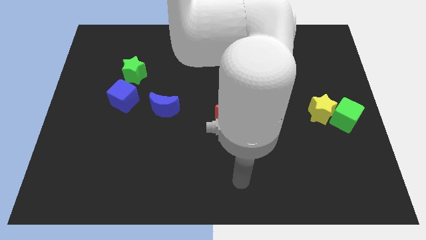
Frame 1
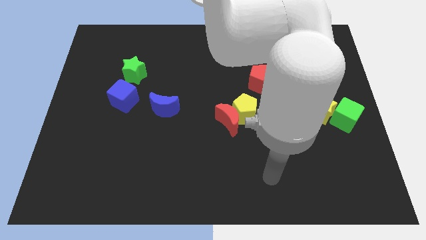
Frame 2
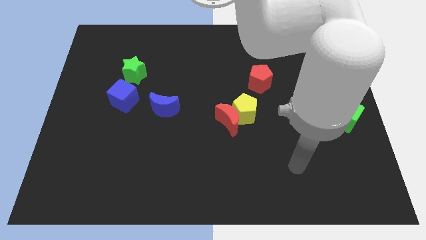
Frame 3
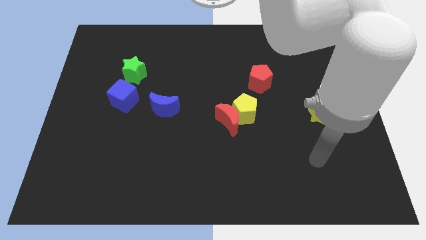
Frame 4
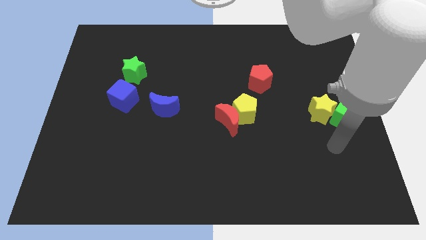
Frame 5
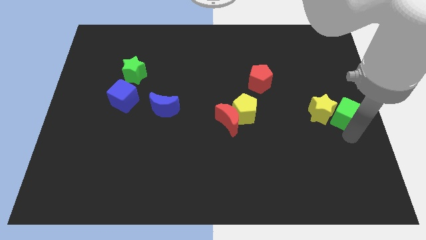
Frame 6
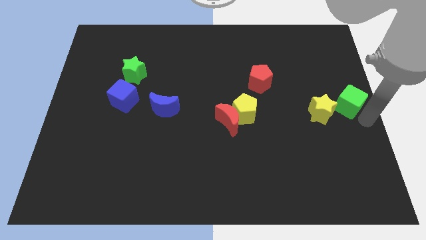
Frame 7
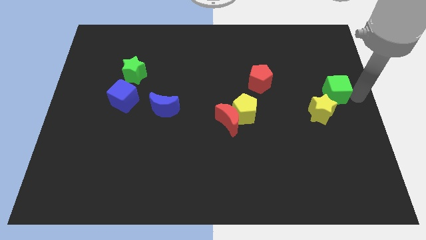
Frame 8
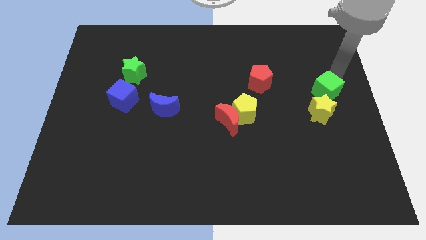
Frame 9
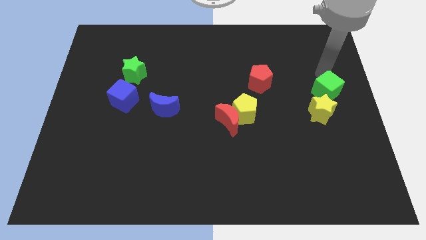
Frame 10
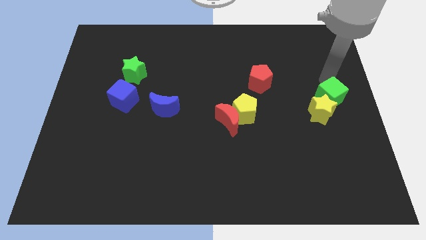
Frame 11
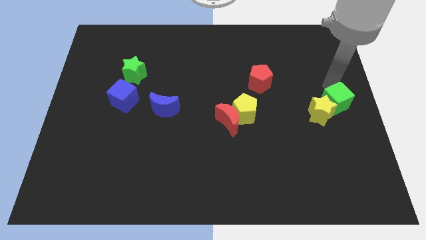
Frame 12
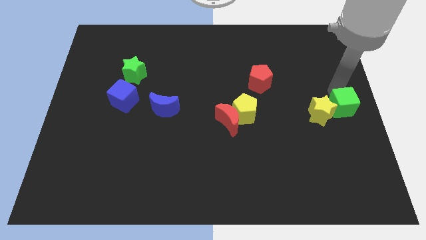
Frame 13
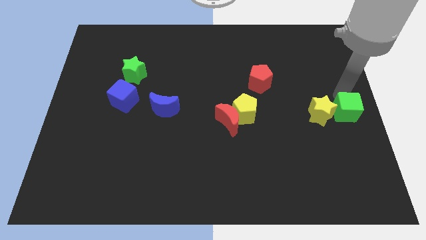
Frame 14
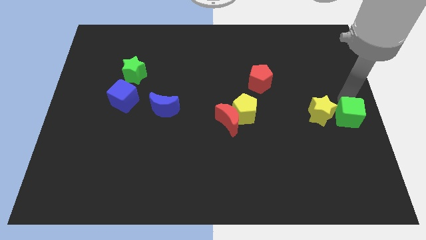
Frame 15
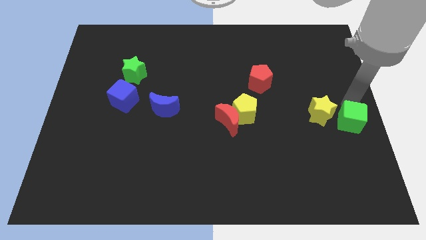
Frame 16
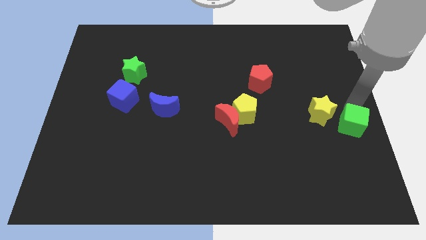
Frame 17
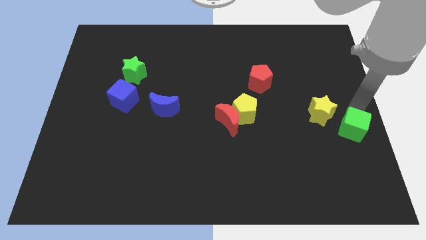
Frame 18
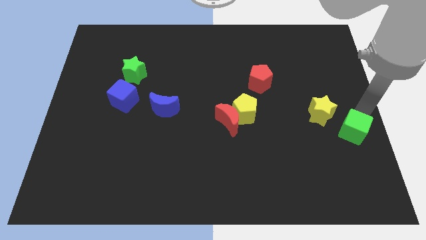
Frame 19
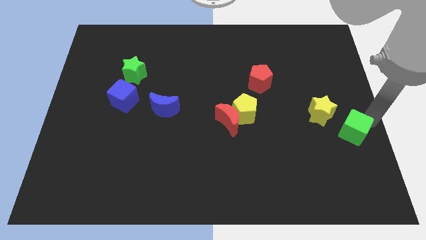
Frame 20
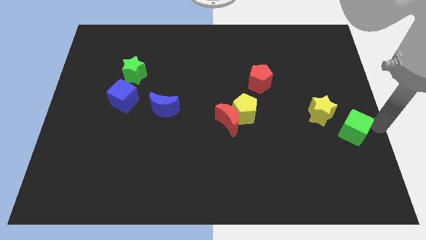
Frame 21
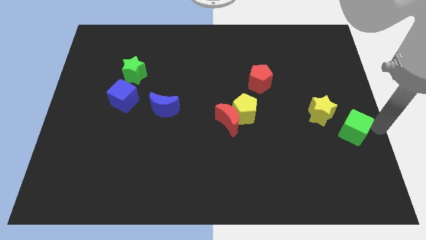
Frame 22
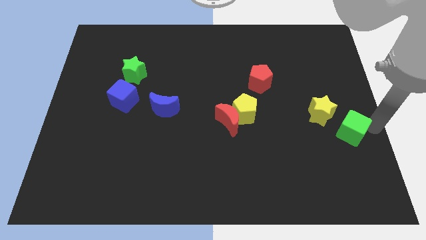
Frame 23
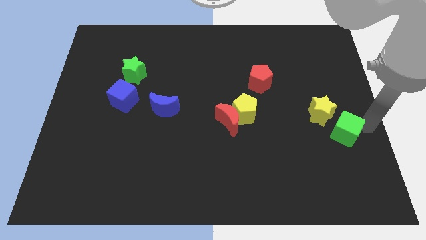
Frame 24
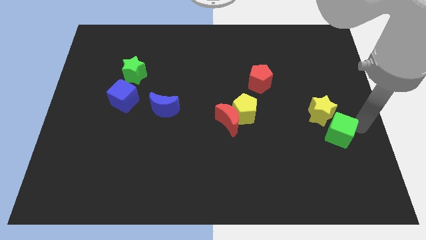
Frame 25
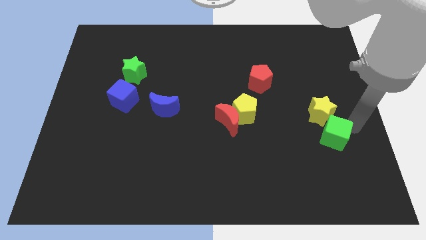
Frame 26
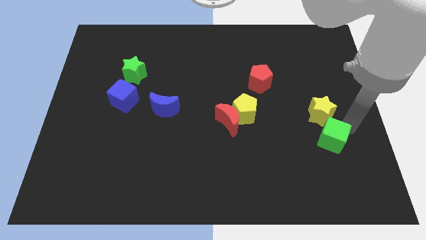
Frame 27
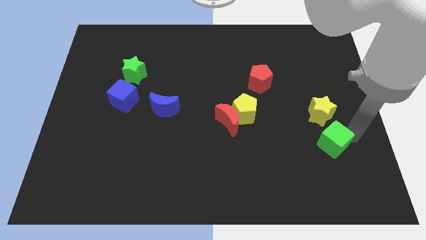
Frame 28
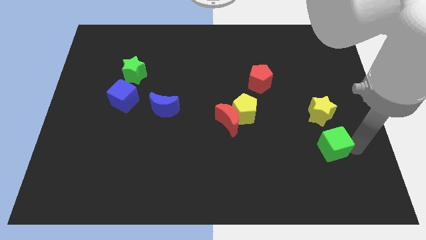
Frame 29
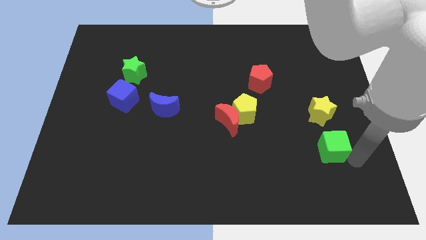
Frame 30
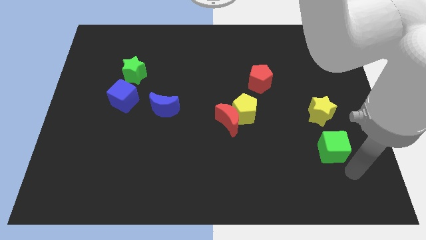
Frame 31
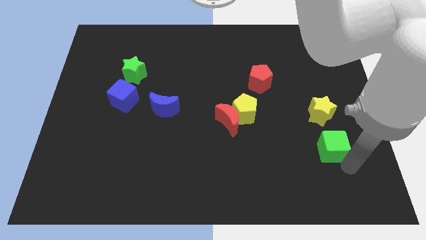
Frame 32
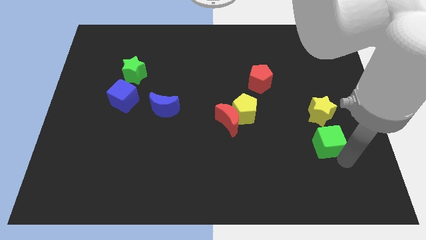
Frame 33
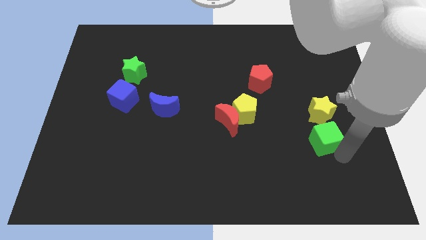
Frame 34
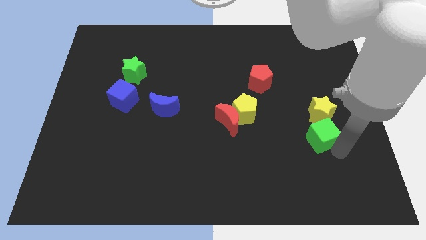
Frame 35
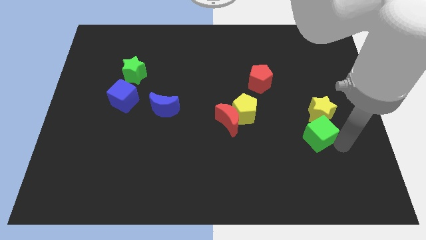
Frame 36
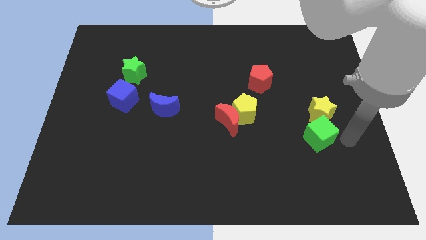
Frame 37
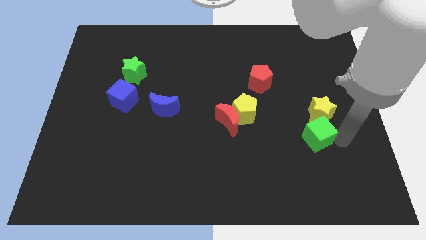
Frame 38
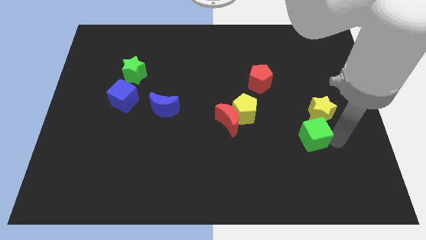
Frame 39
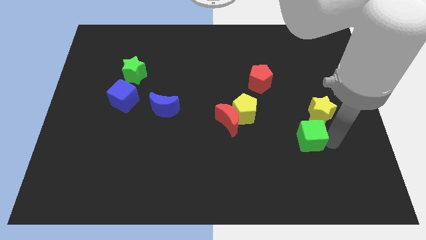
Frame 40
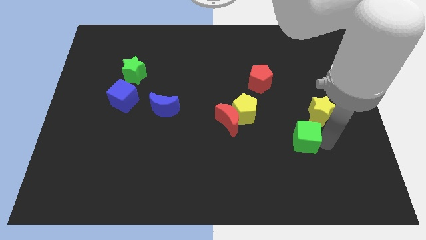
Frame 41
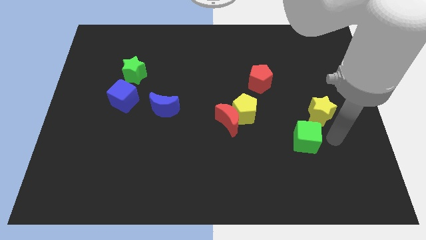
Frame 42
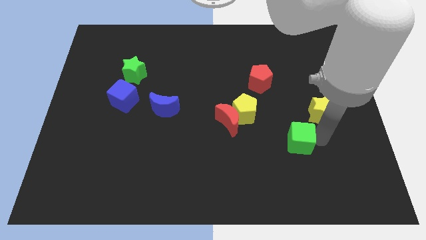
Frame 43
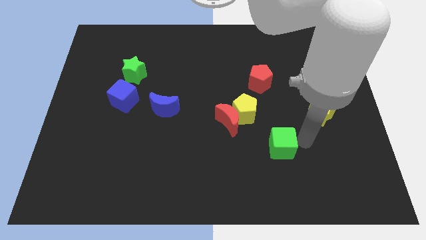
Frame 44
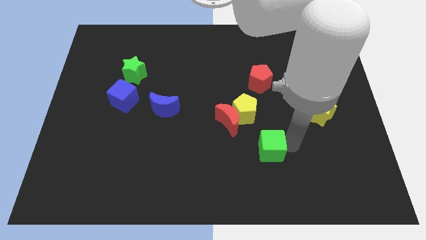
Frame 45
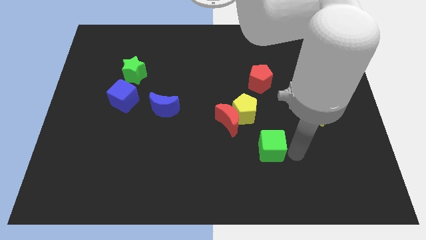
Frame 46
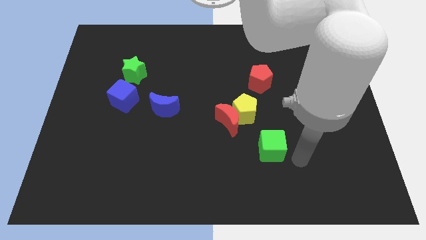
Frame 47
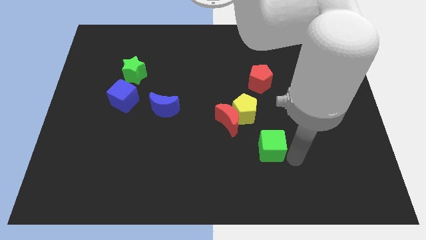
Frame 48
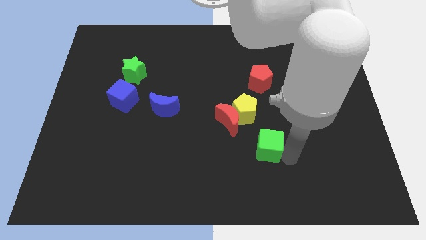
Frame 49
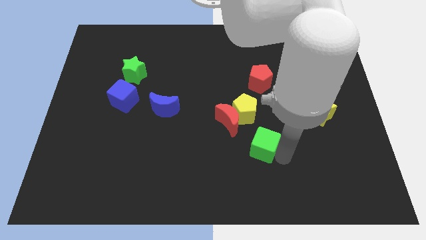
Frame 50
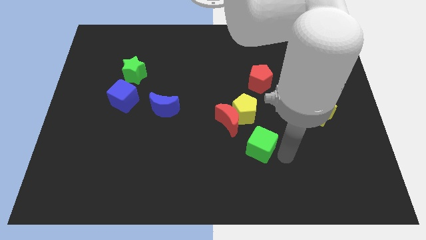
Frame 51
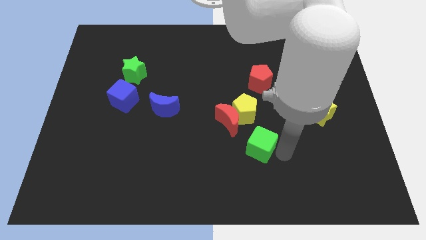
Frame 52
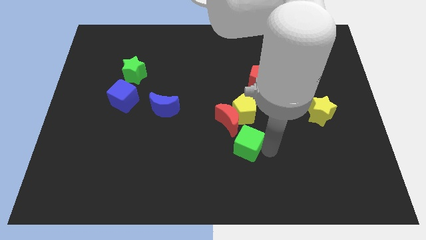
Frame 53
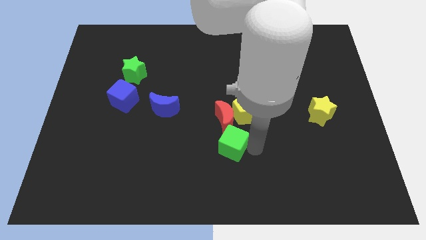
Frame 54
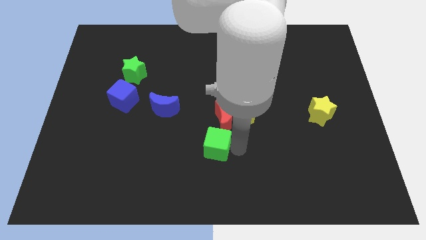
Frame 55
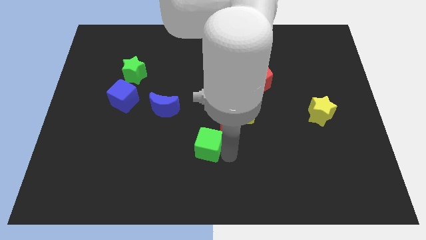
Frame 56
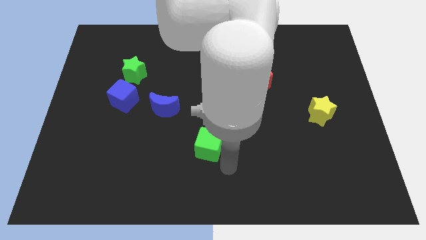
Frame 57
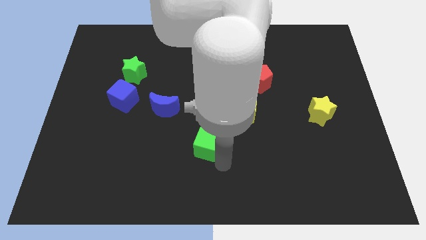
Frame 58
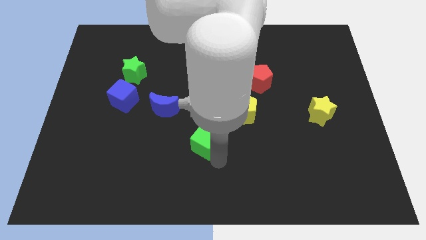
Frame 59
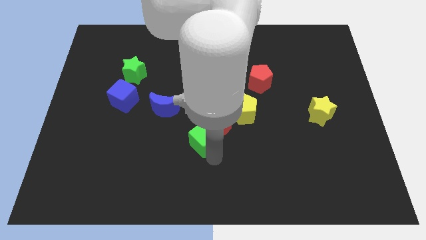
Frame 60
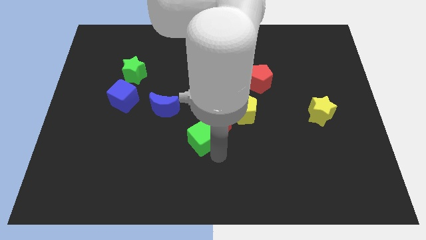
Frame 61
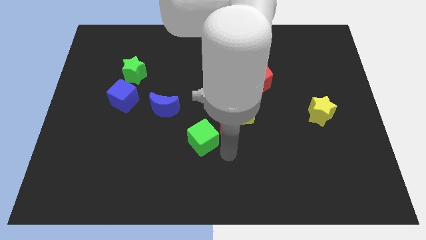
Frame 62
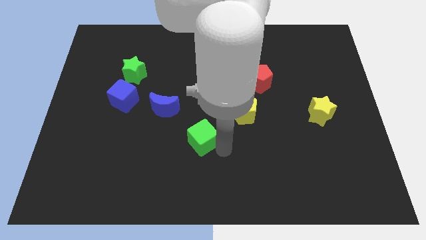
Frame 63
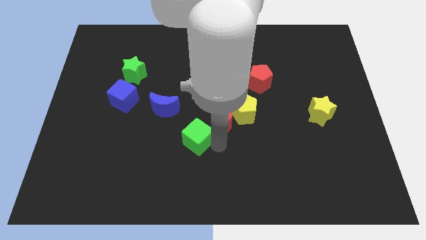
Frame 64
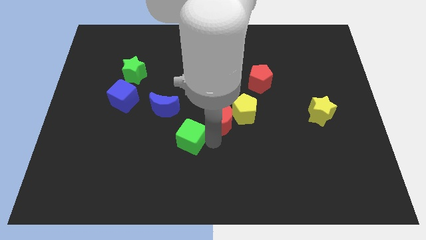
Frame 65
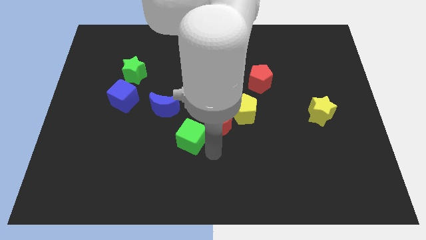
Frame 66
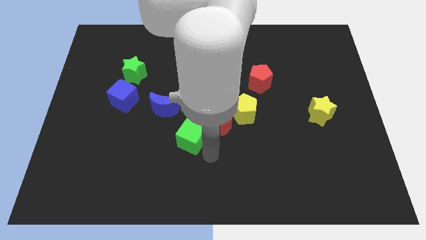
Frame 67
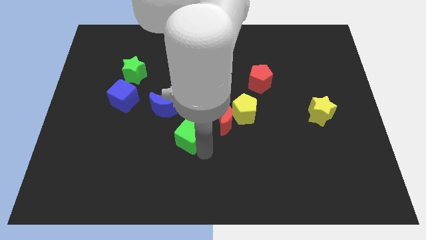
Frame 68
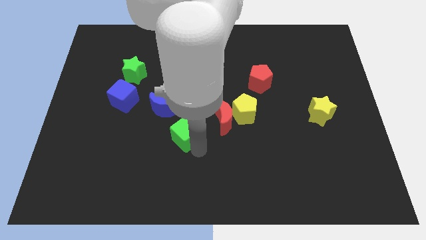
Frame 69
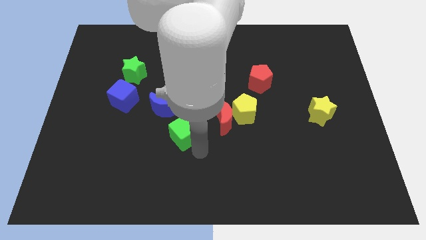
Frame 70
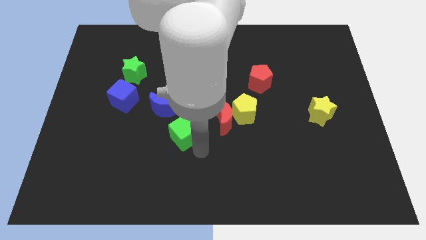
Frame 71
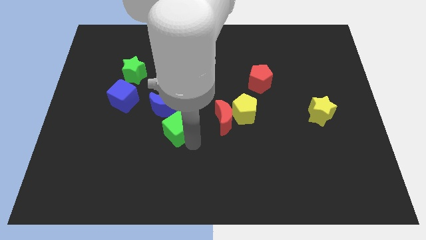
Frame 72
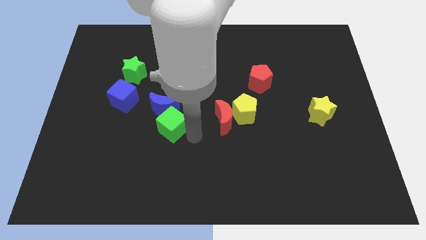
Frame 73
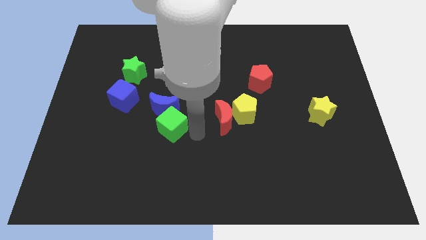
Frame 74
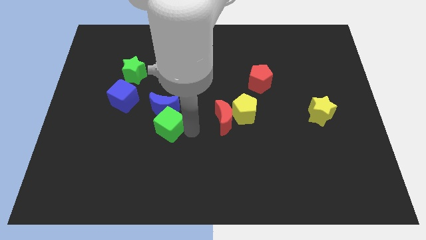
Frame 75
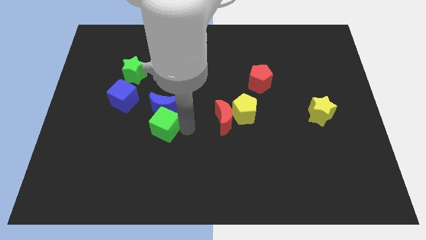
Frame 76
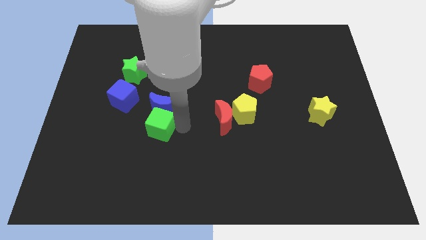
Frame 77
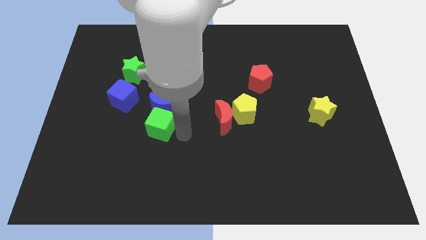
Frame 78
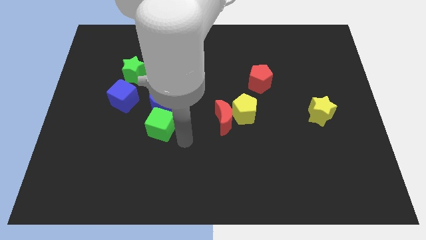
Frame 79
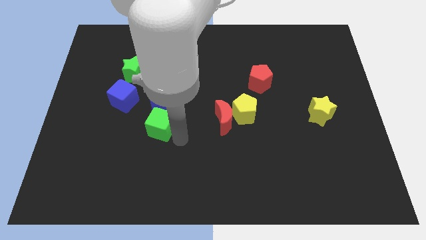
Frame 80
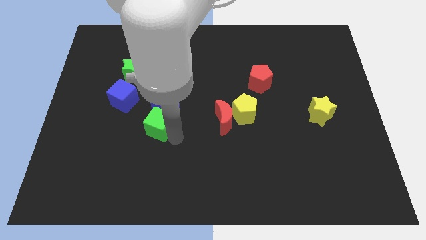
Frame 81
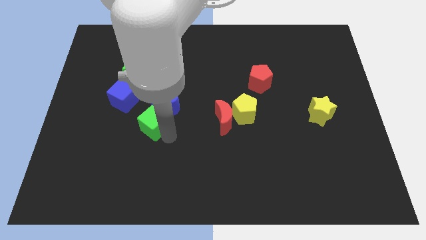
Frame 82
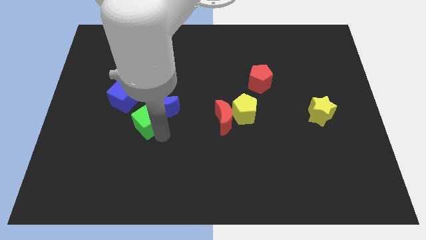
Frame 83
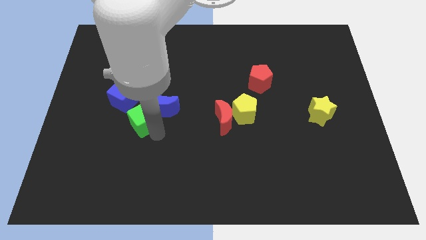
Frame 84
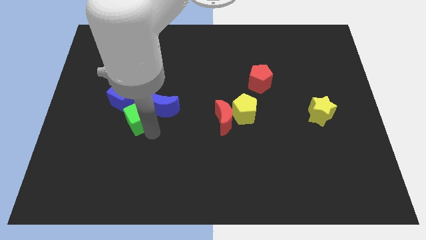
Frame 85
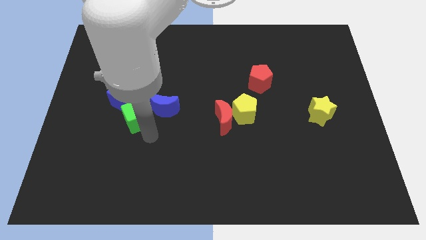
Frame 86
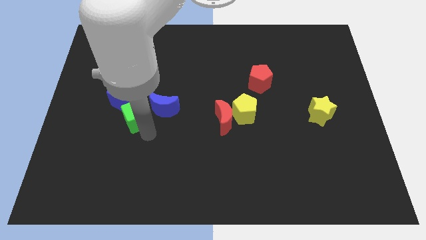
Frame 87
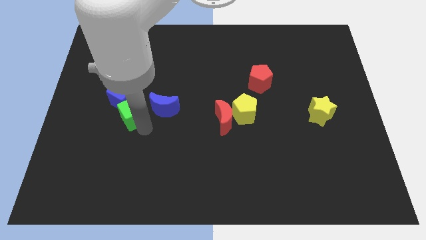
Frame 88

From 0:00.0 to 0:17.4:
push the green cube close to the blue cube
